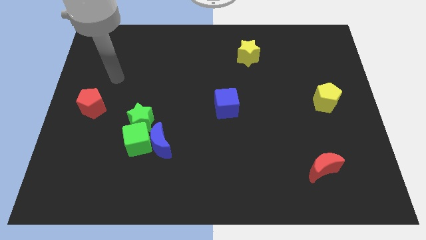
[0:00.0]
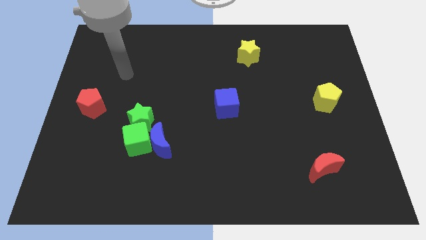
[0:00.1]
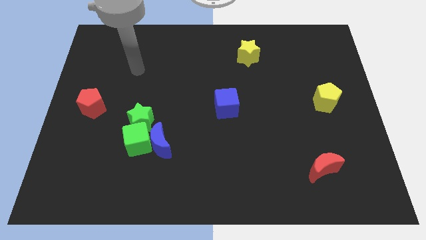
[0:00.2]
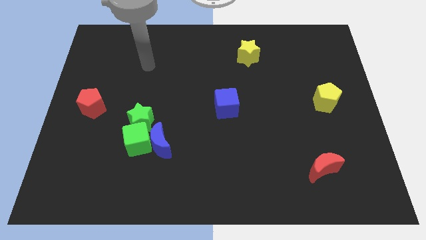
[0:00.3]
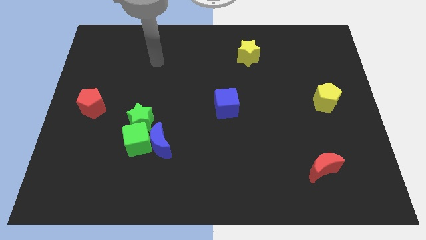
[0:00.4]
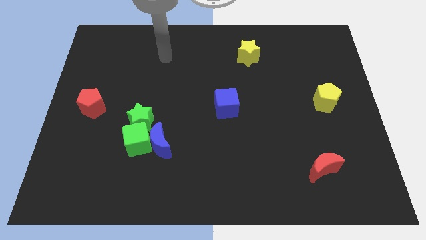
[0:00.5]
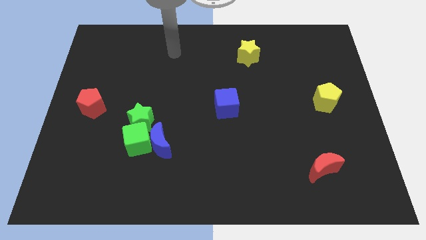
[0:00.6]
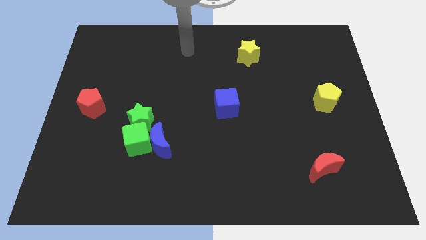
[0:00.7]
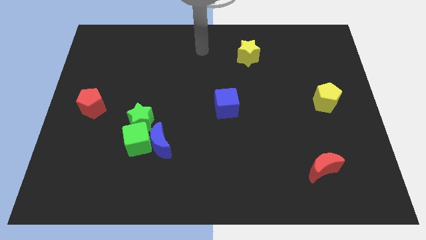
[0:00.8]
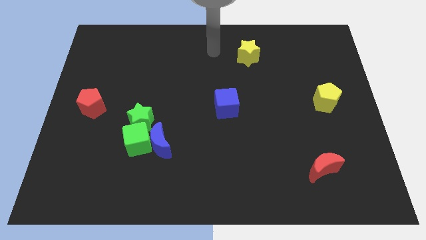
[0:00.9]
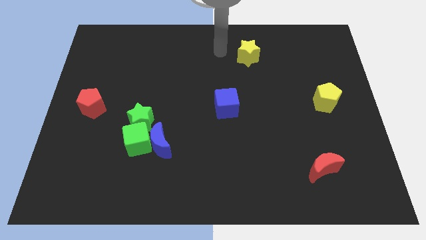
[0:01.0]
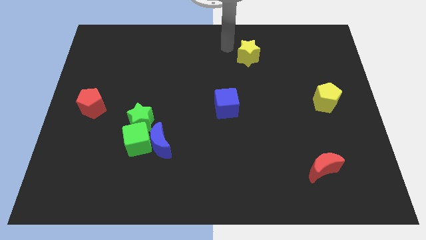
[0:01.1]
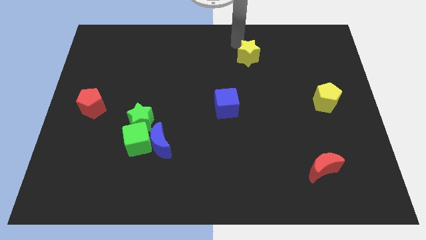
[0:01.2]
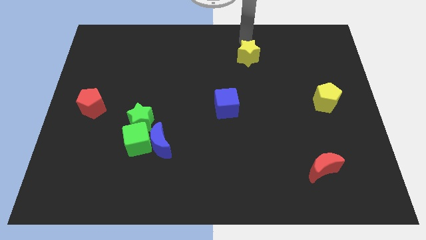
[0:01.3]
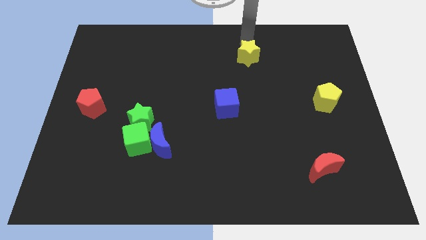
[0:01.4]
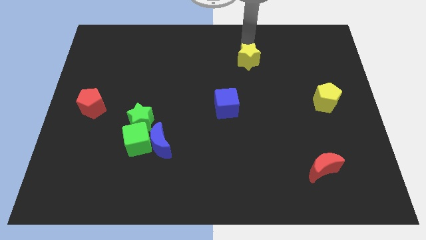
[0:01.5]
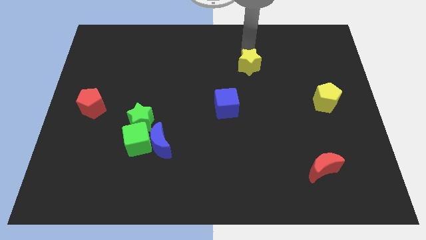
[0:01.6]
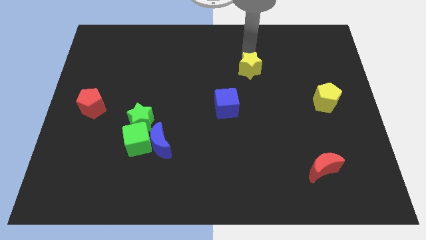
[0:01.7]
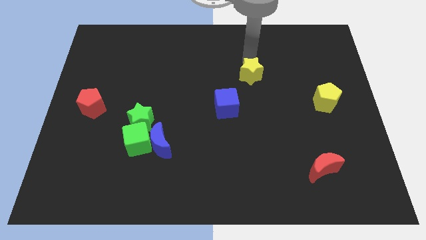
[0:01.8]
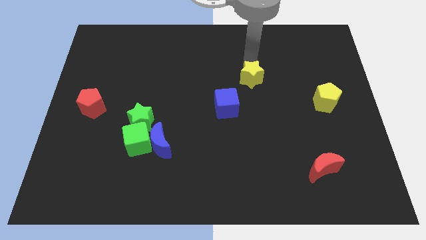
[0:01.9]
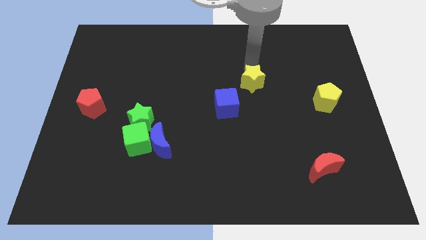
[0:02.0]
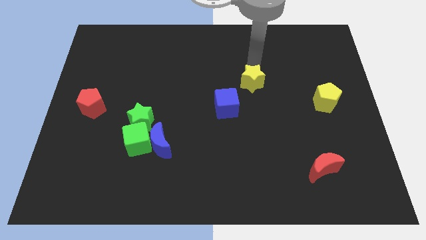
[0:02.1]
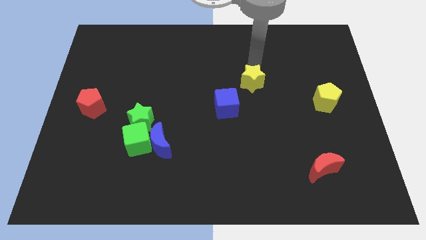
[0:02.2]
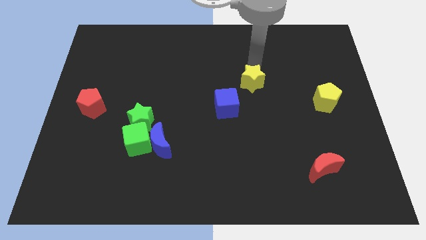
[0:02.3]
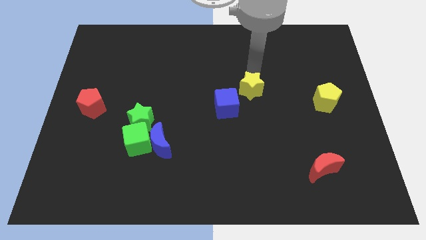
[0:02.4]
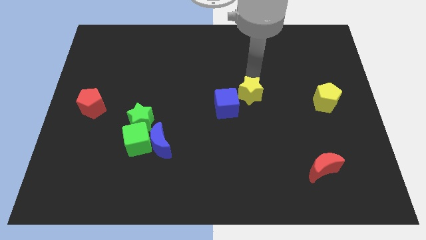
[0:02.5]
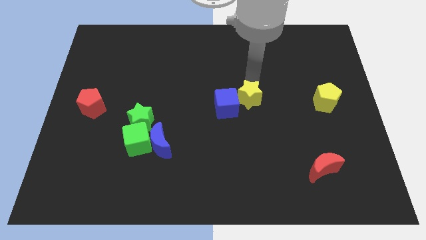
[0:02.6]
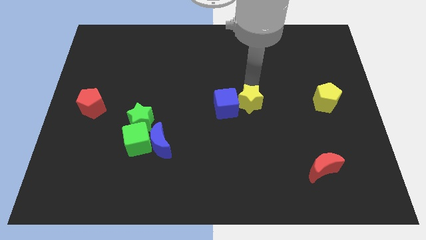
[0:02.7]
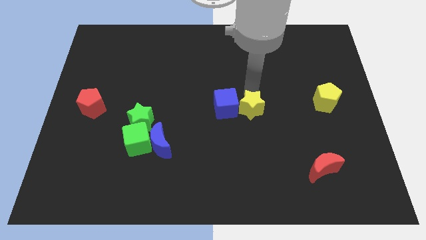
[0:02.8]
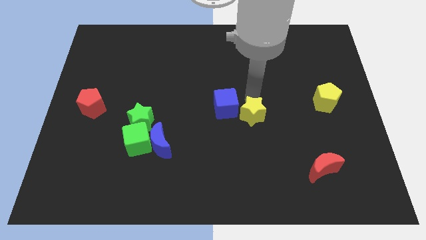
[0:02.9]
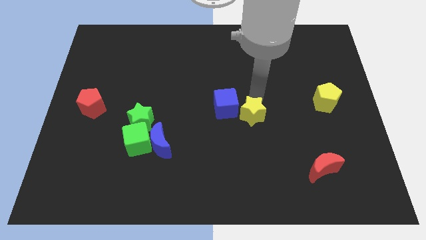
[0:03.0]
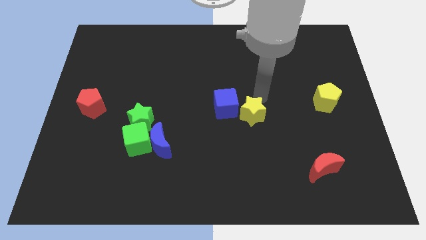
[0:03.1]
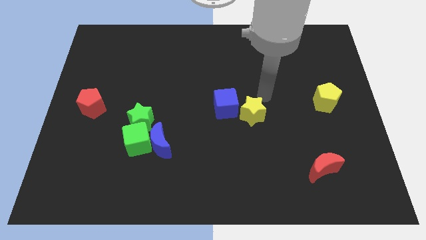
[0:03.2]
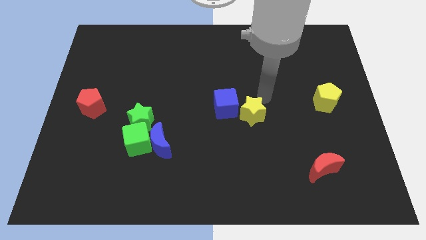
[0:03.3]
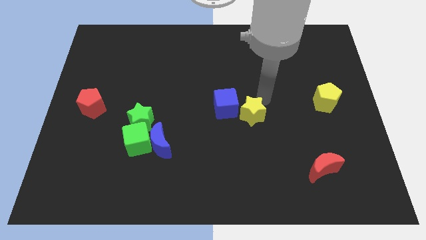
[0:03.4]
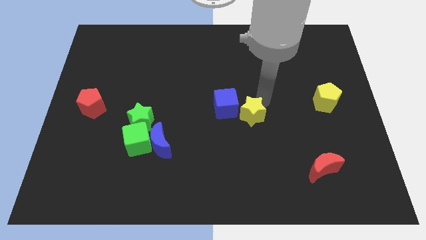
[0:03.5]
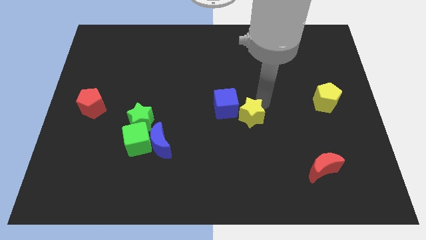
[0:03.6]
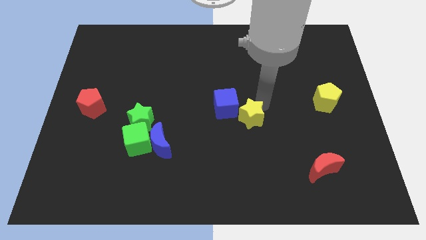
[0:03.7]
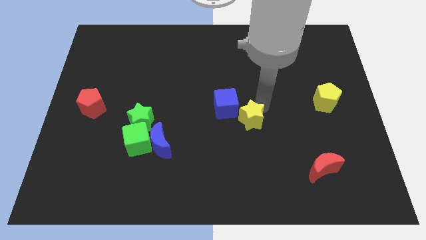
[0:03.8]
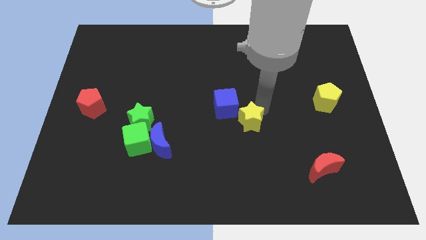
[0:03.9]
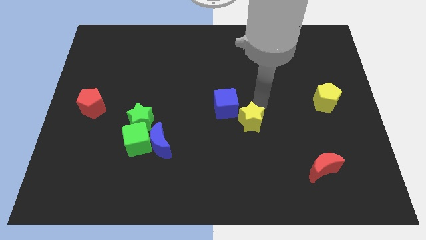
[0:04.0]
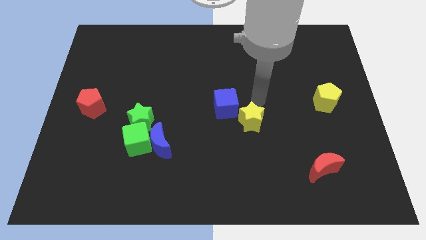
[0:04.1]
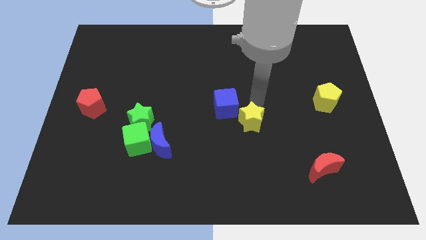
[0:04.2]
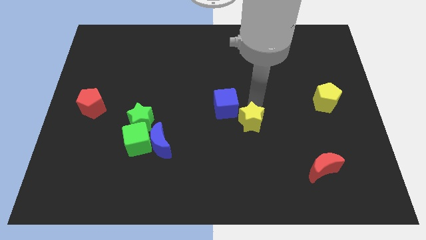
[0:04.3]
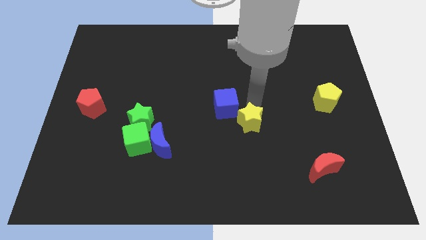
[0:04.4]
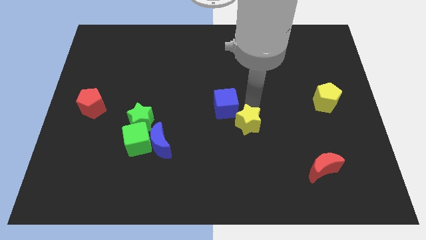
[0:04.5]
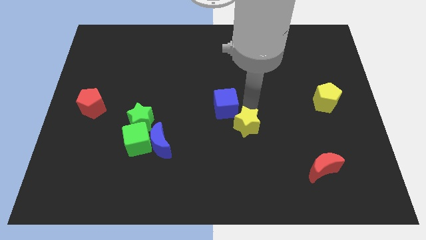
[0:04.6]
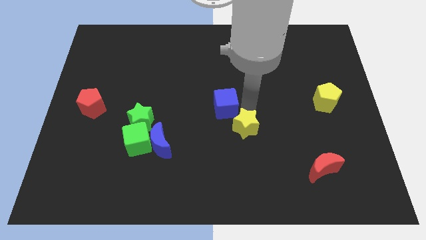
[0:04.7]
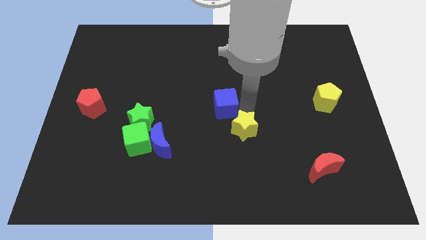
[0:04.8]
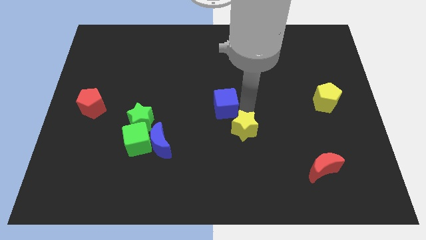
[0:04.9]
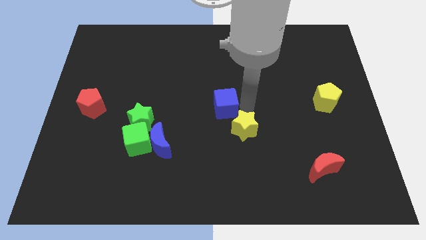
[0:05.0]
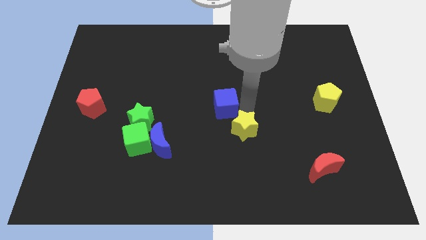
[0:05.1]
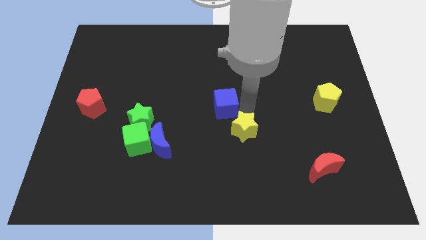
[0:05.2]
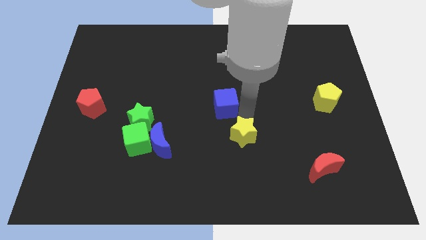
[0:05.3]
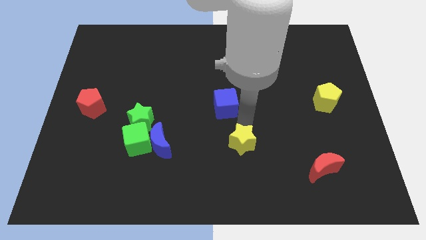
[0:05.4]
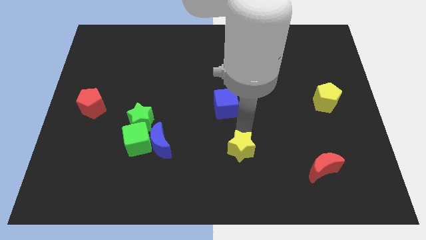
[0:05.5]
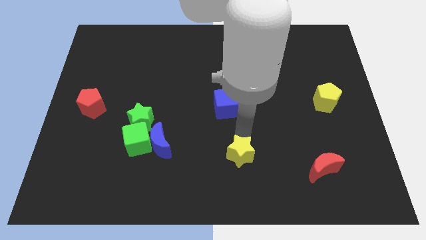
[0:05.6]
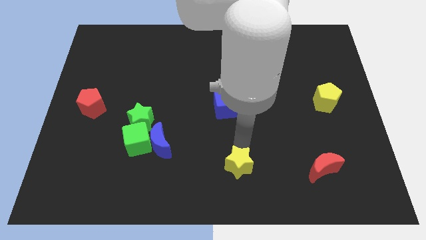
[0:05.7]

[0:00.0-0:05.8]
push the yellow star to the bottom

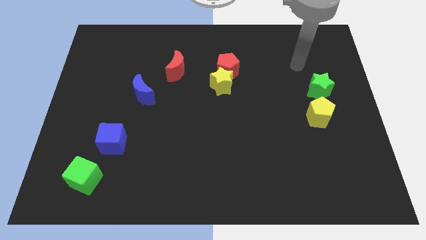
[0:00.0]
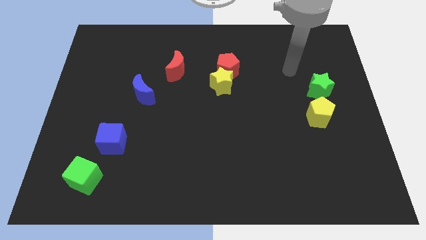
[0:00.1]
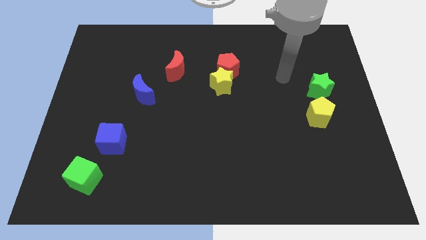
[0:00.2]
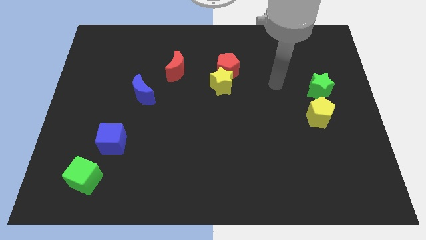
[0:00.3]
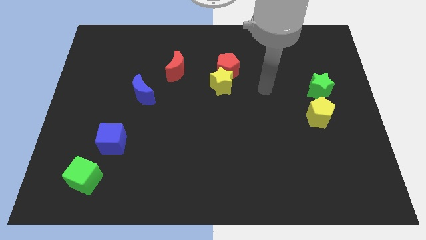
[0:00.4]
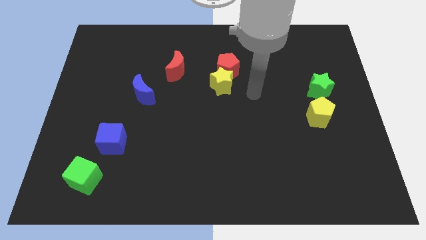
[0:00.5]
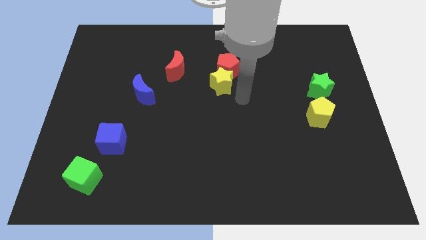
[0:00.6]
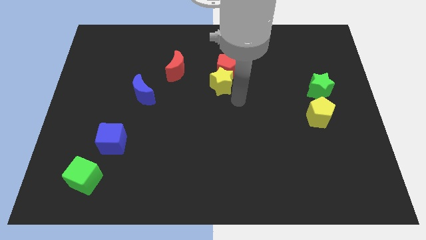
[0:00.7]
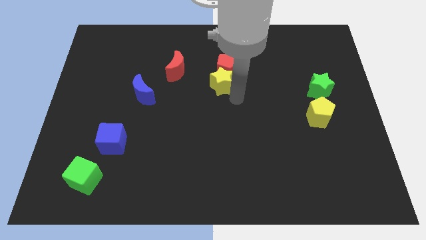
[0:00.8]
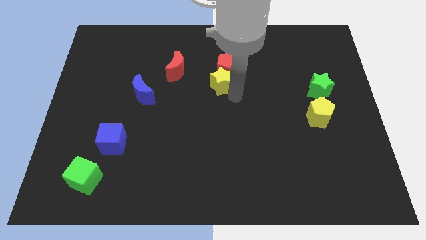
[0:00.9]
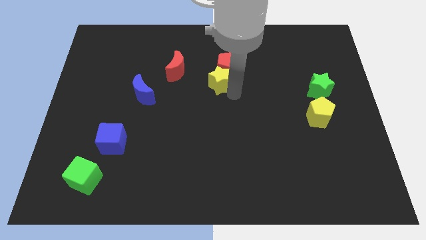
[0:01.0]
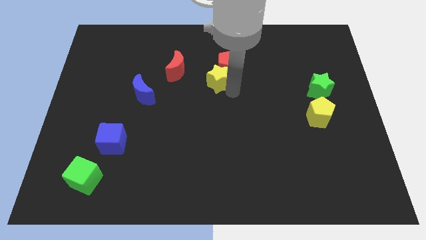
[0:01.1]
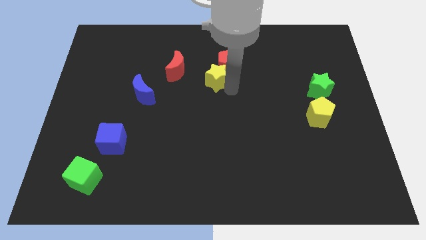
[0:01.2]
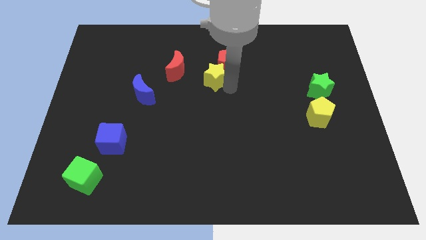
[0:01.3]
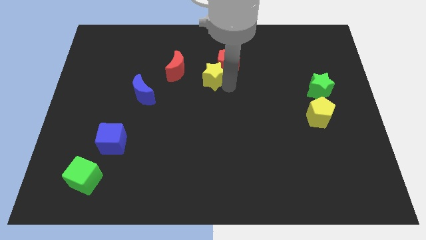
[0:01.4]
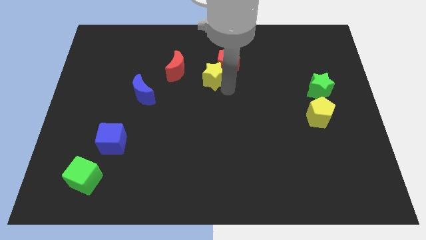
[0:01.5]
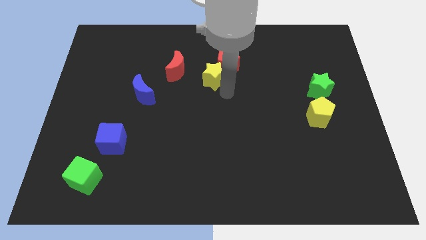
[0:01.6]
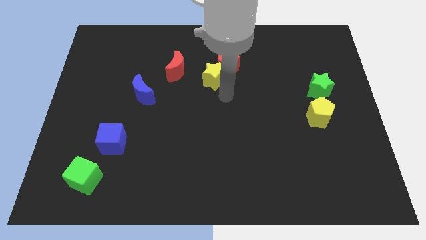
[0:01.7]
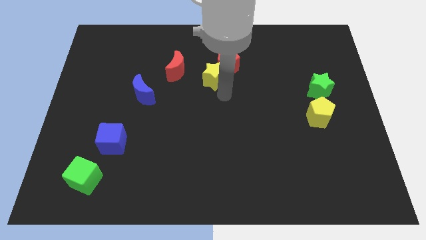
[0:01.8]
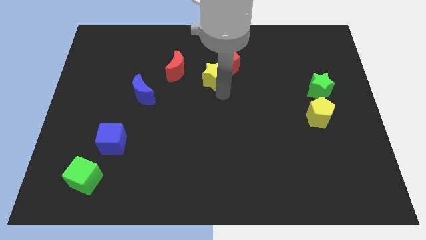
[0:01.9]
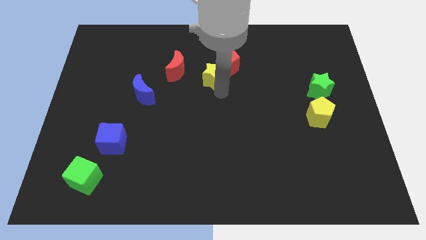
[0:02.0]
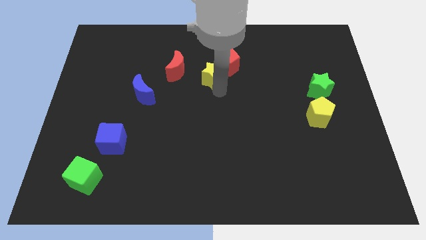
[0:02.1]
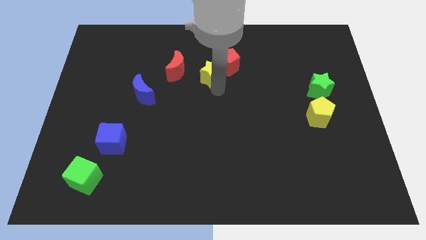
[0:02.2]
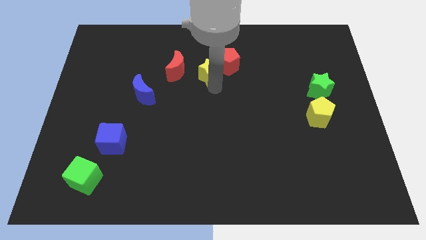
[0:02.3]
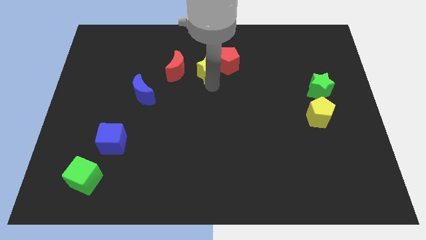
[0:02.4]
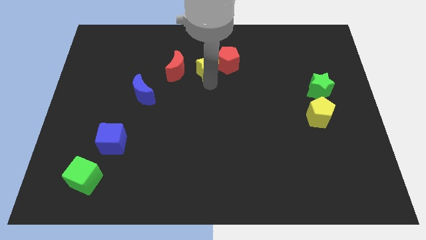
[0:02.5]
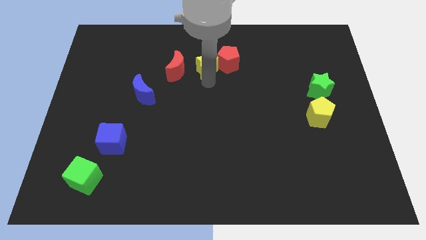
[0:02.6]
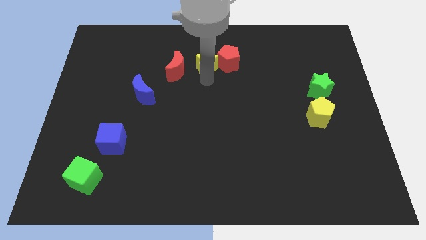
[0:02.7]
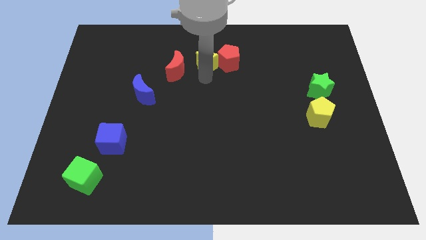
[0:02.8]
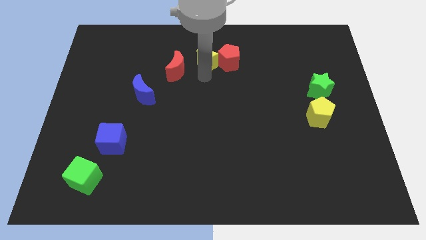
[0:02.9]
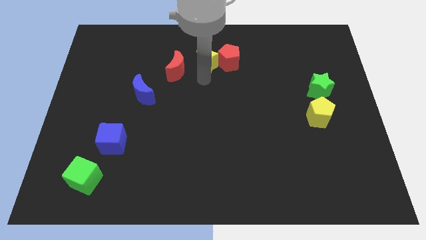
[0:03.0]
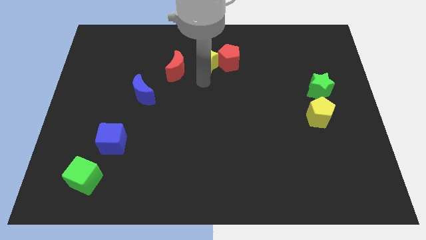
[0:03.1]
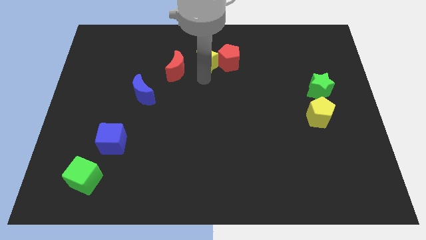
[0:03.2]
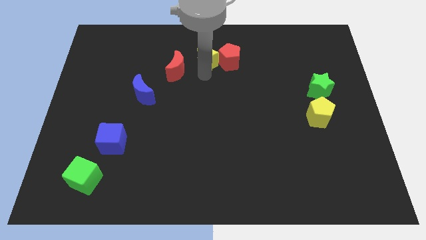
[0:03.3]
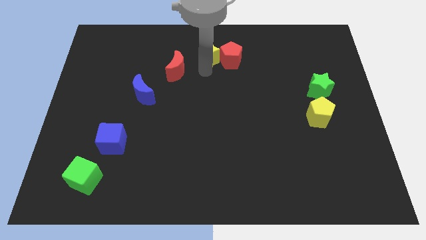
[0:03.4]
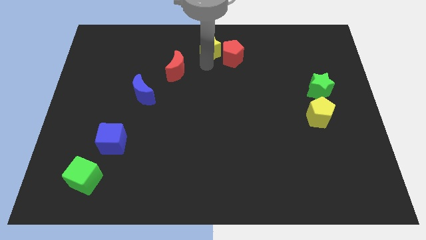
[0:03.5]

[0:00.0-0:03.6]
put the yellow star to the top side
